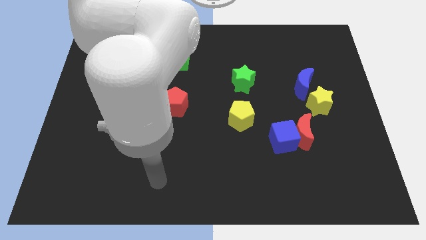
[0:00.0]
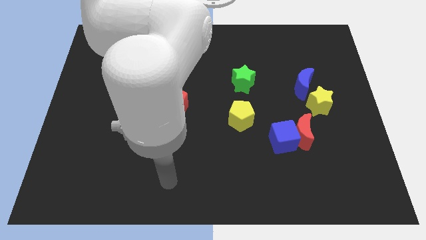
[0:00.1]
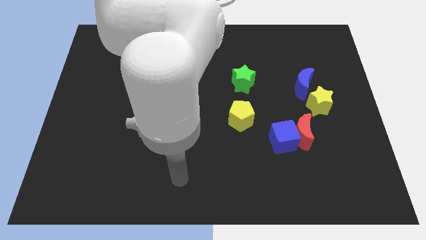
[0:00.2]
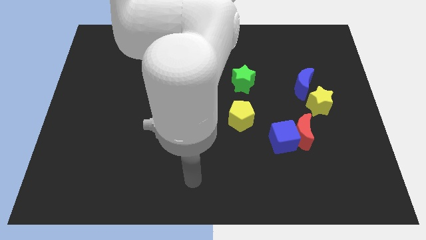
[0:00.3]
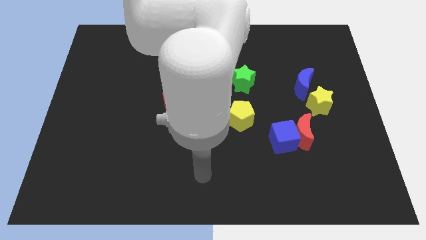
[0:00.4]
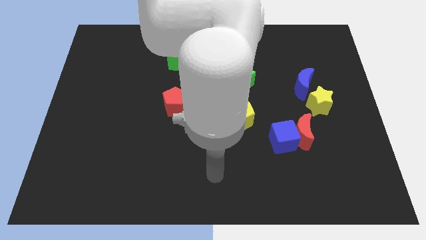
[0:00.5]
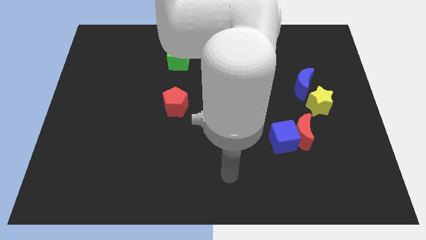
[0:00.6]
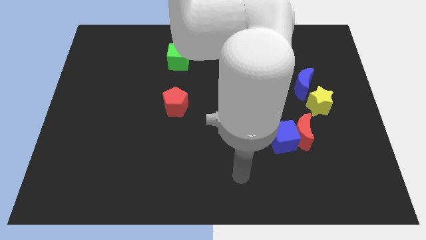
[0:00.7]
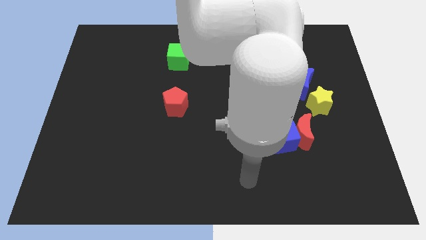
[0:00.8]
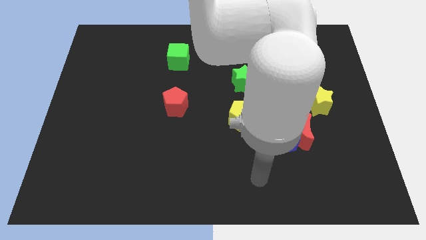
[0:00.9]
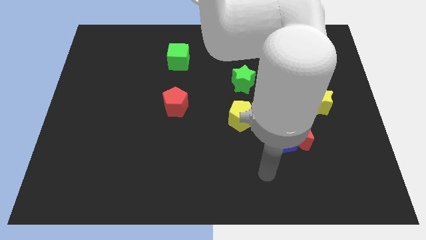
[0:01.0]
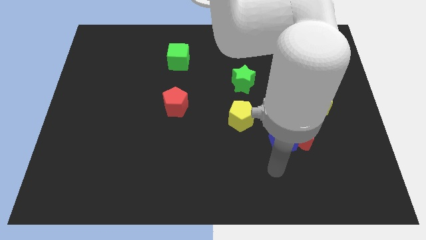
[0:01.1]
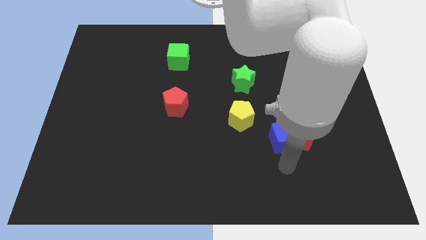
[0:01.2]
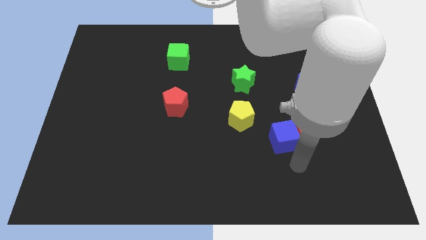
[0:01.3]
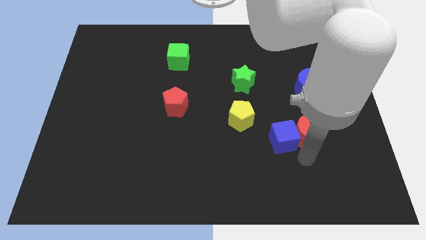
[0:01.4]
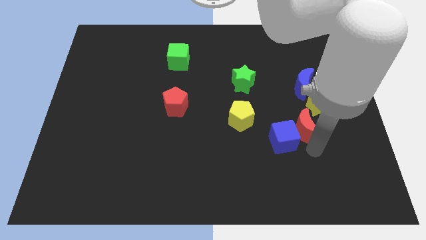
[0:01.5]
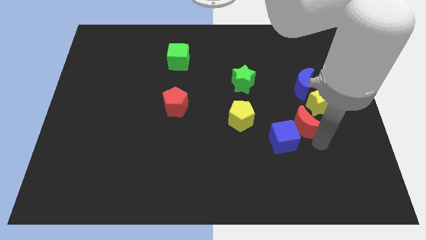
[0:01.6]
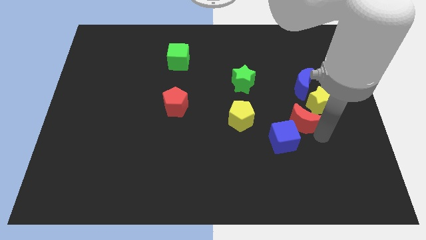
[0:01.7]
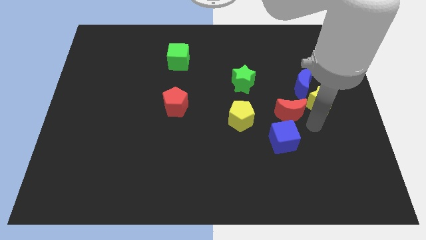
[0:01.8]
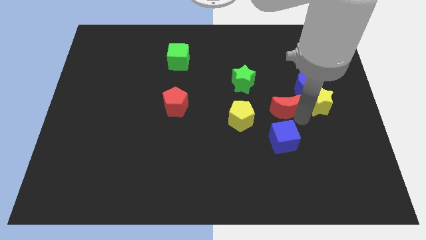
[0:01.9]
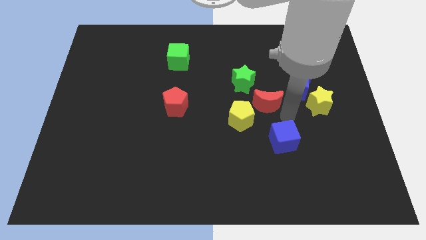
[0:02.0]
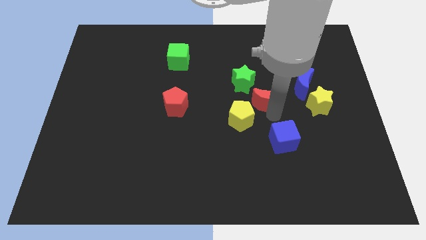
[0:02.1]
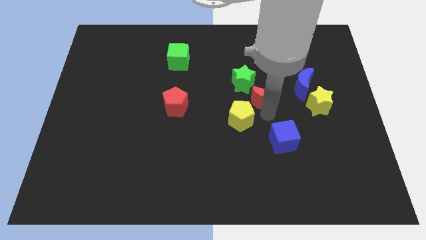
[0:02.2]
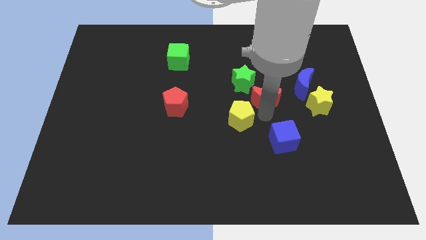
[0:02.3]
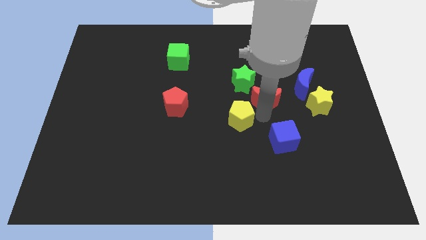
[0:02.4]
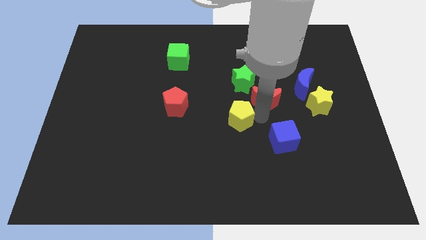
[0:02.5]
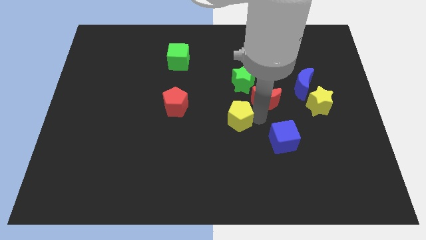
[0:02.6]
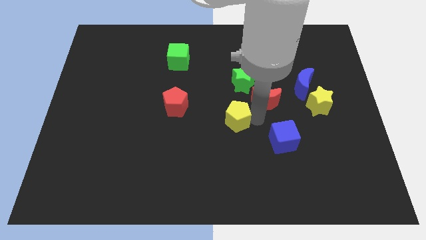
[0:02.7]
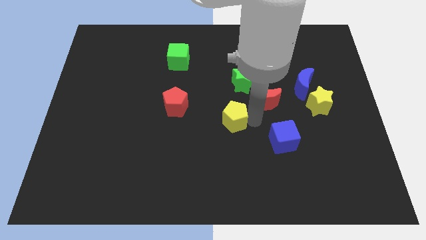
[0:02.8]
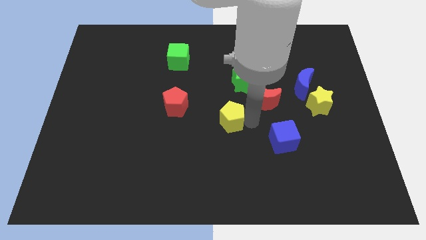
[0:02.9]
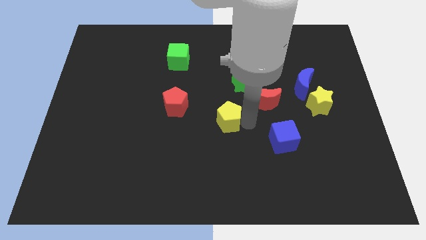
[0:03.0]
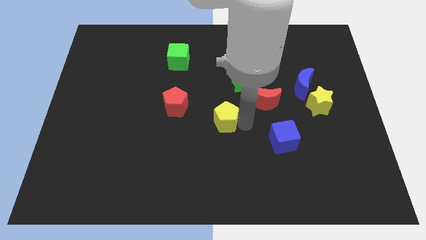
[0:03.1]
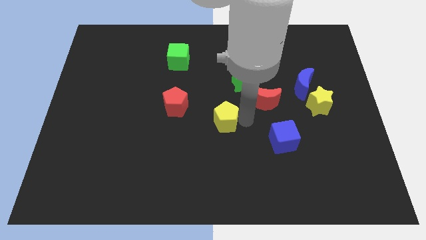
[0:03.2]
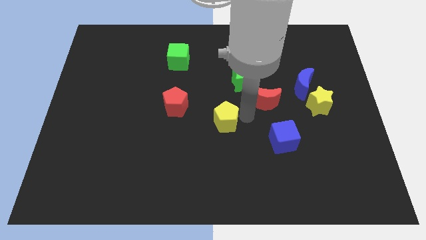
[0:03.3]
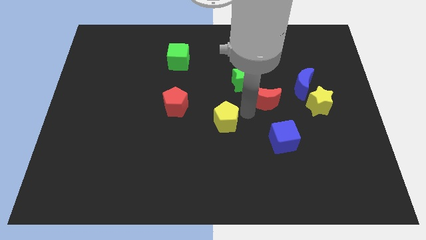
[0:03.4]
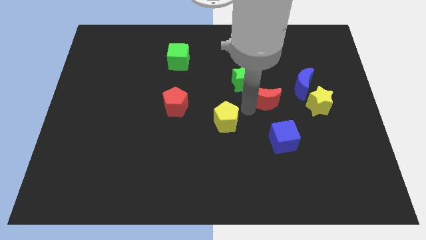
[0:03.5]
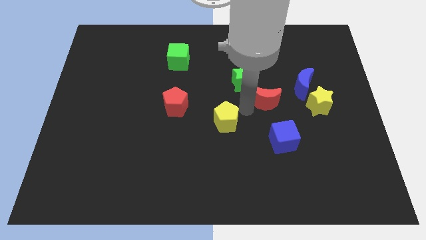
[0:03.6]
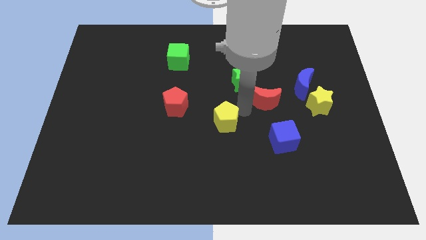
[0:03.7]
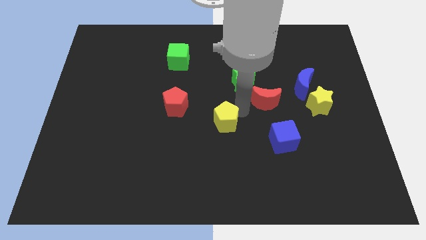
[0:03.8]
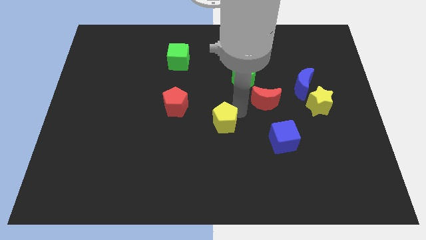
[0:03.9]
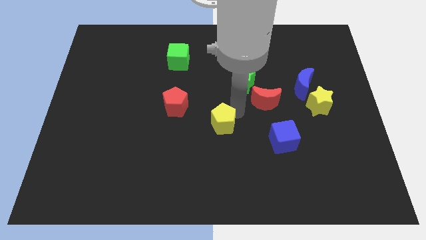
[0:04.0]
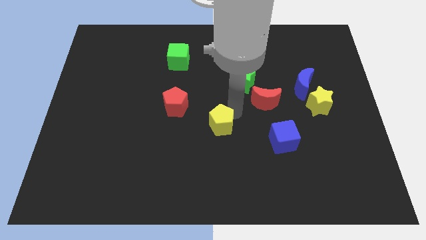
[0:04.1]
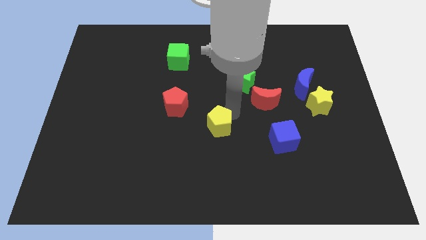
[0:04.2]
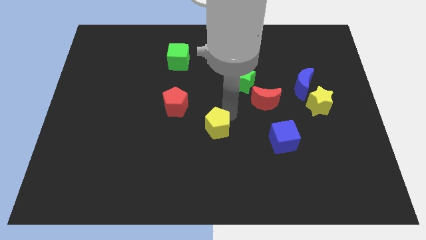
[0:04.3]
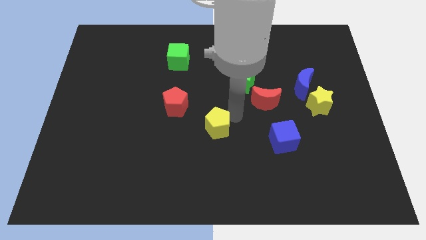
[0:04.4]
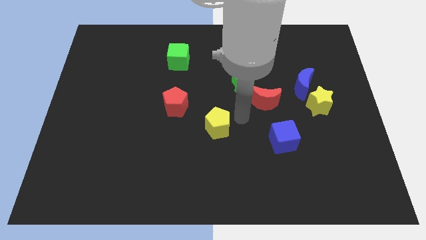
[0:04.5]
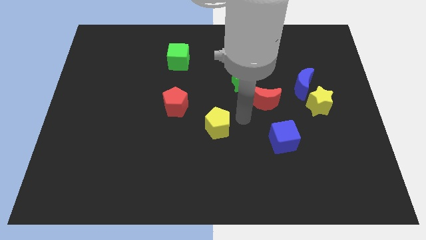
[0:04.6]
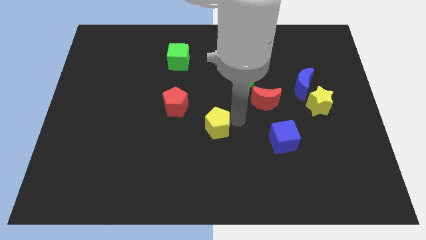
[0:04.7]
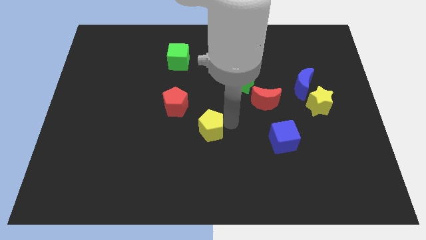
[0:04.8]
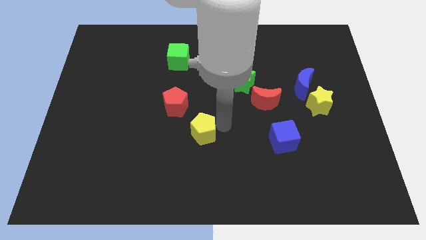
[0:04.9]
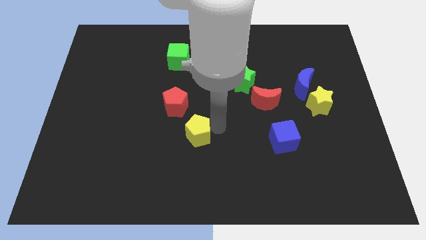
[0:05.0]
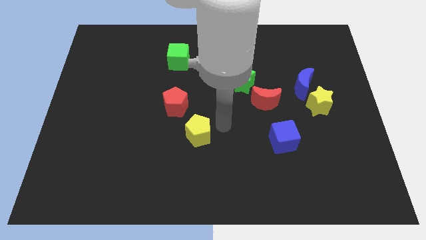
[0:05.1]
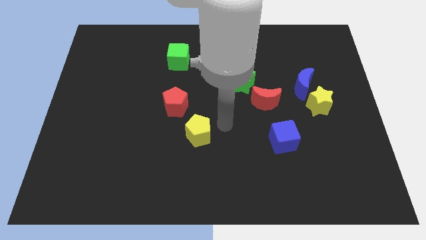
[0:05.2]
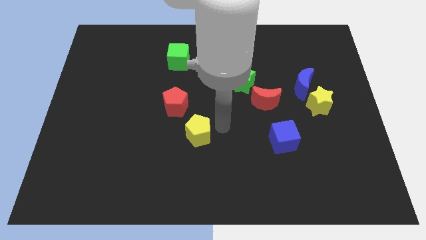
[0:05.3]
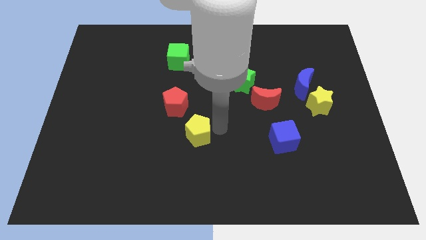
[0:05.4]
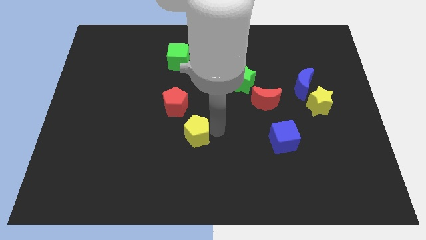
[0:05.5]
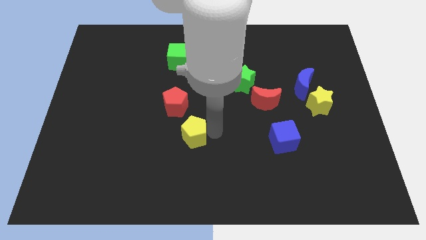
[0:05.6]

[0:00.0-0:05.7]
push the yellow pentagon to the bottom of the red pentagon
